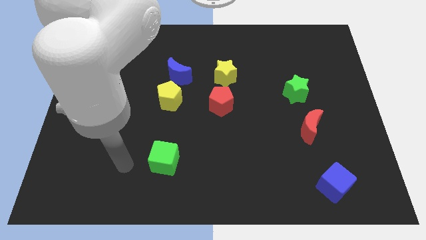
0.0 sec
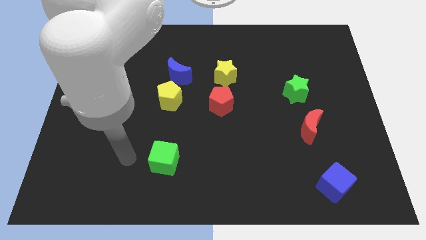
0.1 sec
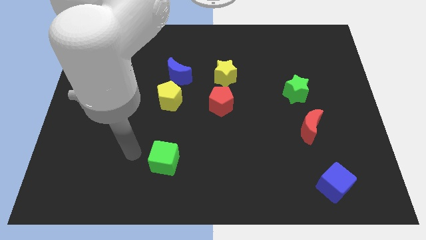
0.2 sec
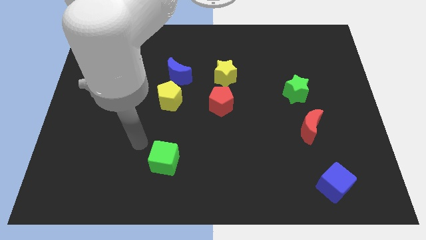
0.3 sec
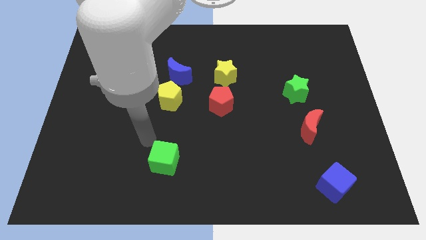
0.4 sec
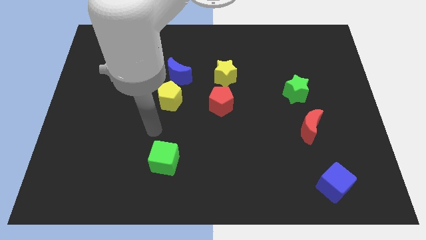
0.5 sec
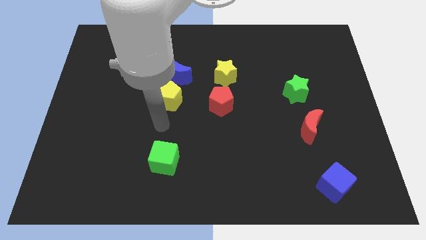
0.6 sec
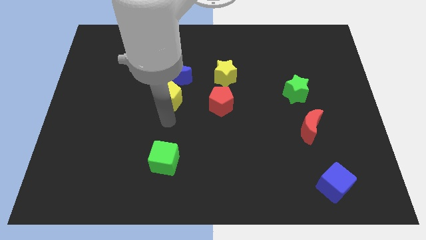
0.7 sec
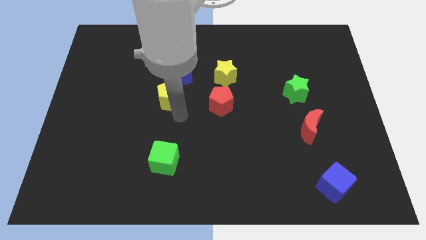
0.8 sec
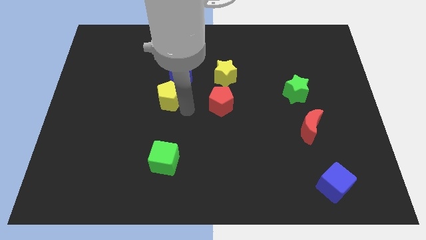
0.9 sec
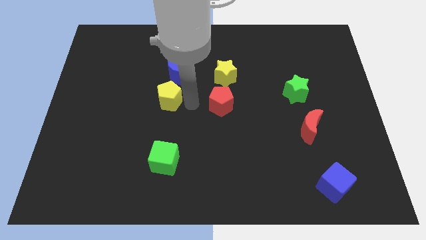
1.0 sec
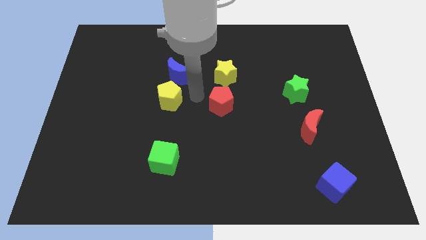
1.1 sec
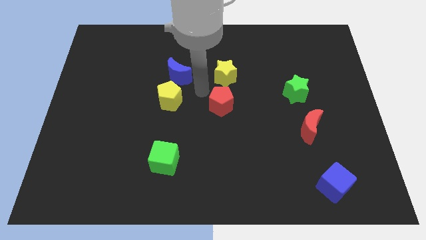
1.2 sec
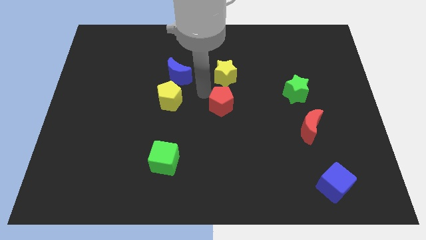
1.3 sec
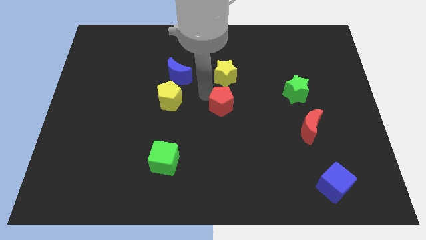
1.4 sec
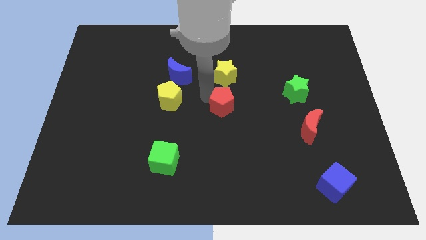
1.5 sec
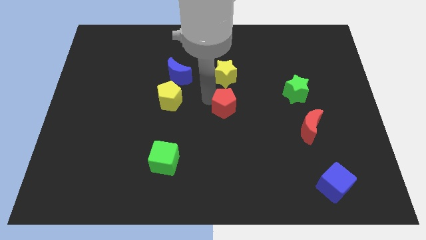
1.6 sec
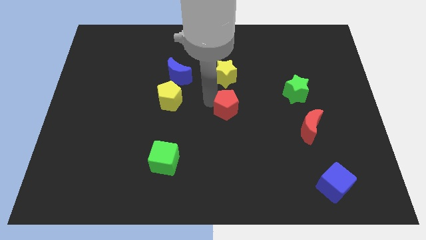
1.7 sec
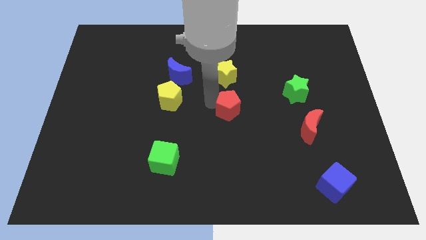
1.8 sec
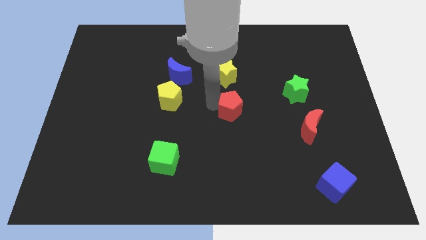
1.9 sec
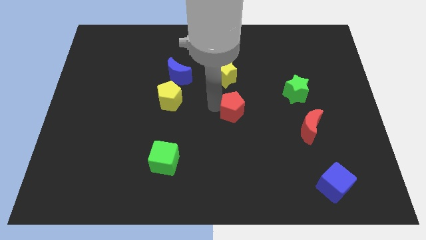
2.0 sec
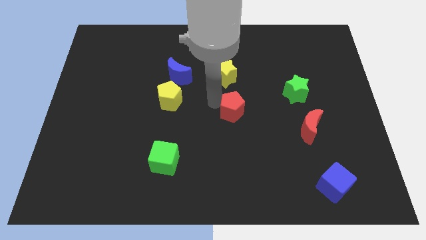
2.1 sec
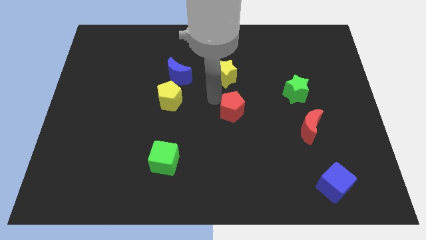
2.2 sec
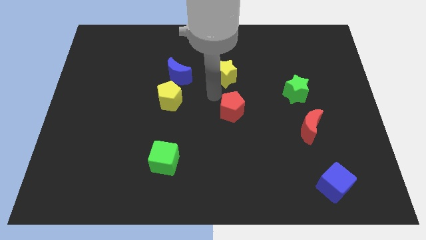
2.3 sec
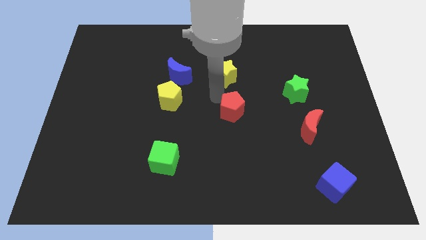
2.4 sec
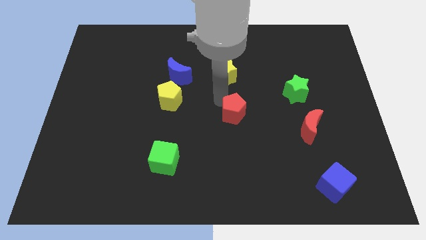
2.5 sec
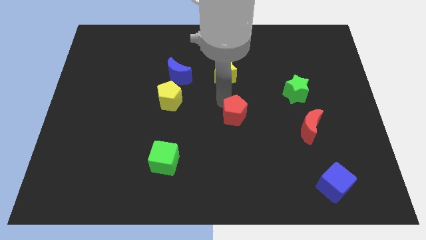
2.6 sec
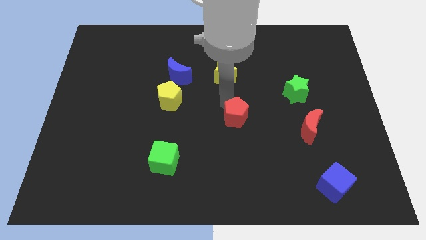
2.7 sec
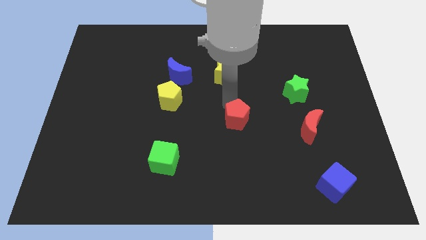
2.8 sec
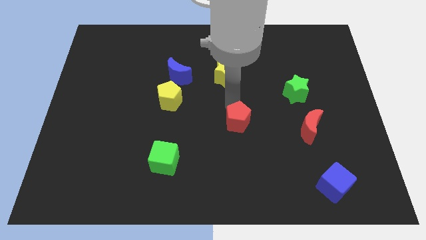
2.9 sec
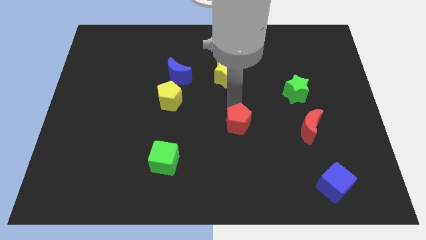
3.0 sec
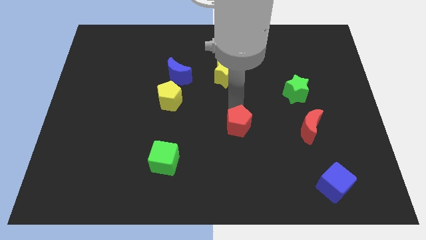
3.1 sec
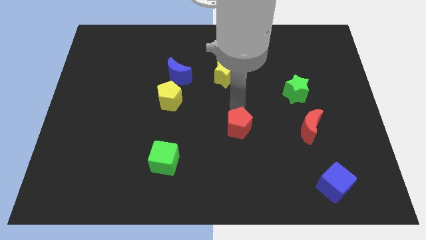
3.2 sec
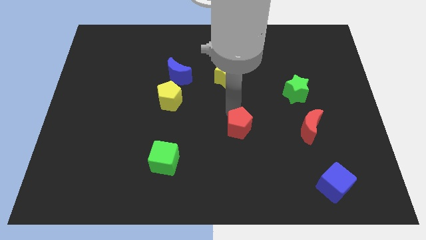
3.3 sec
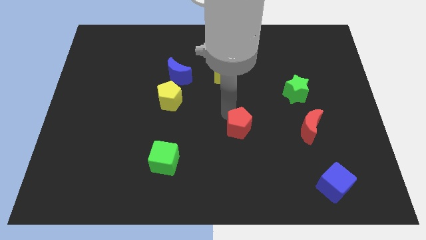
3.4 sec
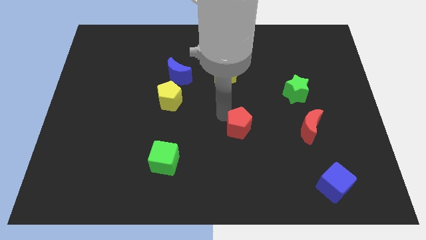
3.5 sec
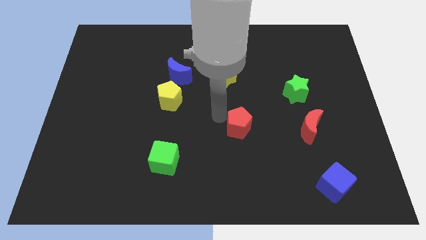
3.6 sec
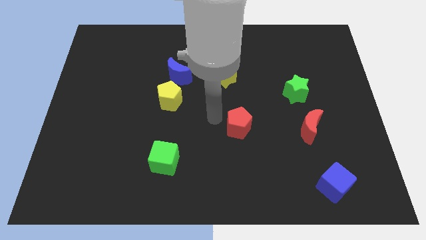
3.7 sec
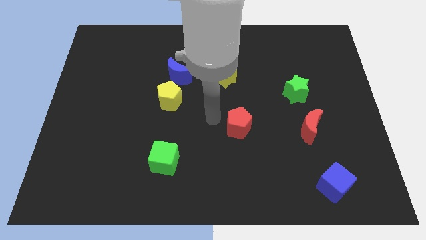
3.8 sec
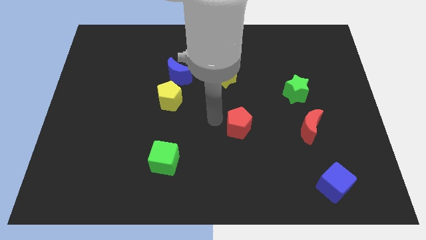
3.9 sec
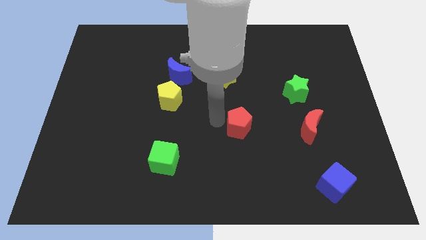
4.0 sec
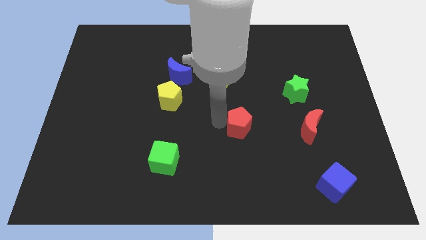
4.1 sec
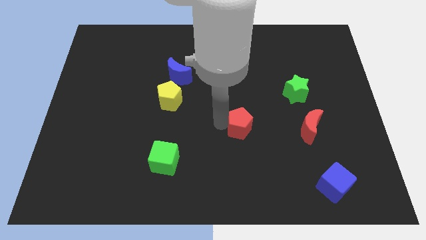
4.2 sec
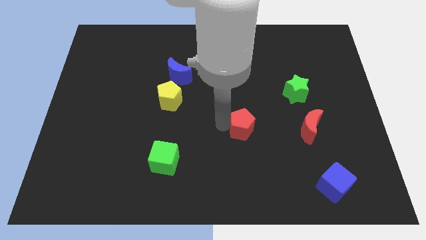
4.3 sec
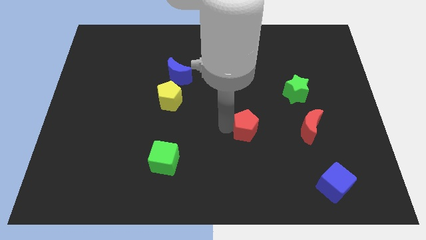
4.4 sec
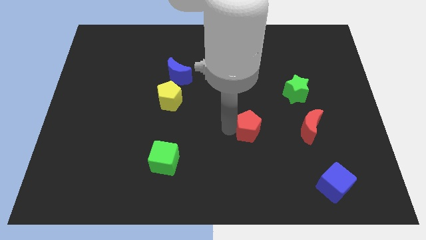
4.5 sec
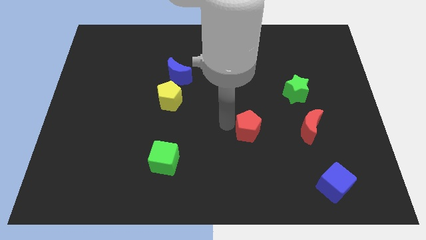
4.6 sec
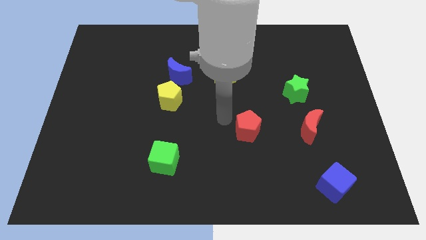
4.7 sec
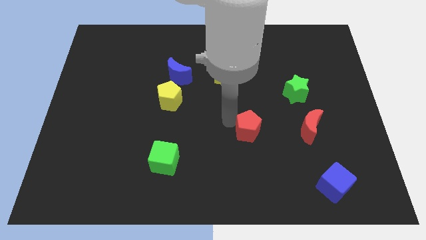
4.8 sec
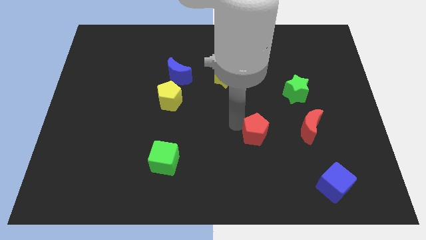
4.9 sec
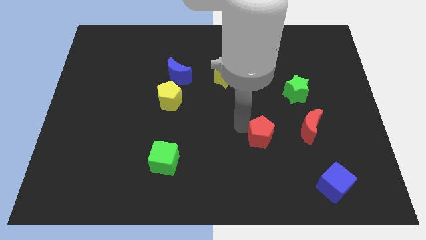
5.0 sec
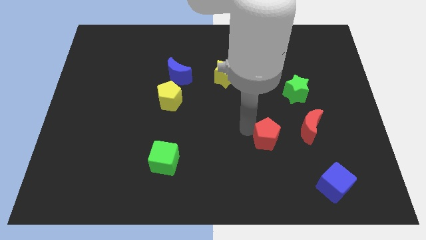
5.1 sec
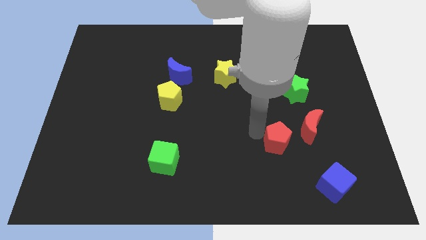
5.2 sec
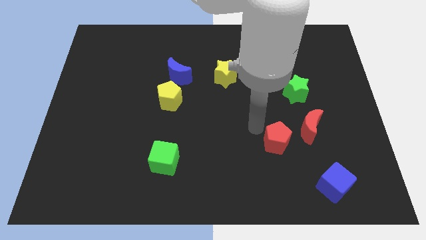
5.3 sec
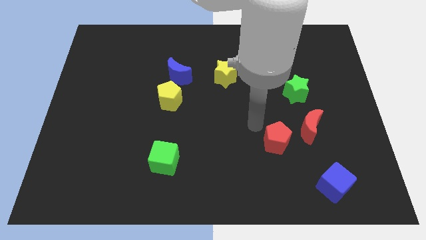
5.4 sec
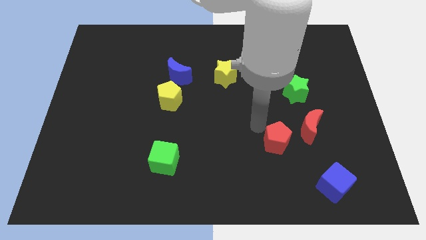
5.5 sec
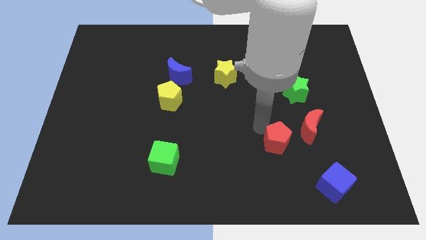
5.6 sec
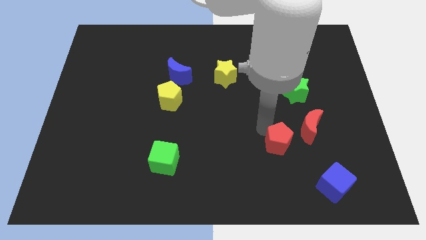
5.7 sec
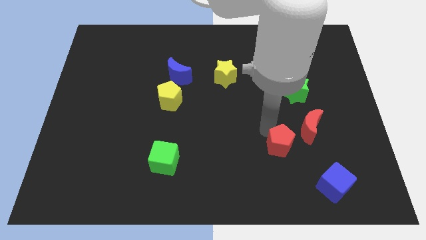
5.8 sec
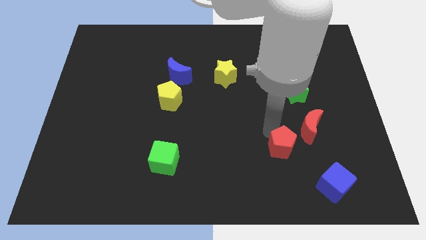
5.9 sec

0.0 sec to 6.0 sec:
slide the red pentagon to the top left side of the blue cube

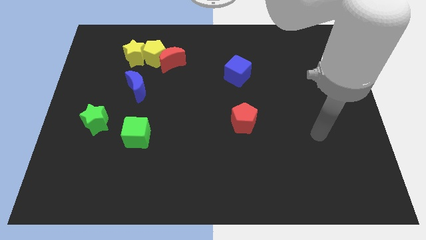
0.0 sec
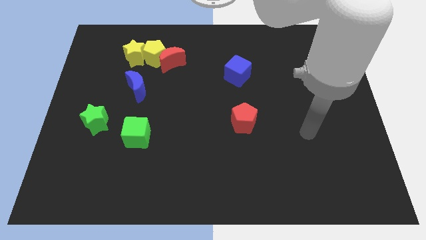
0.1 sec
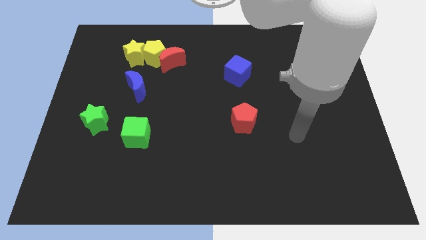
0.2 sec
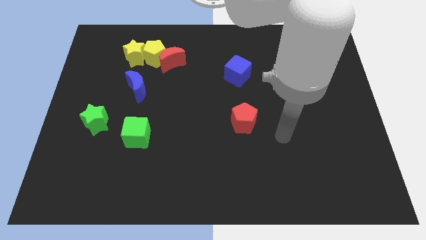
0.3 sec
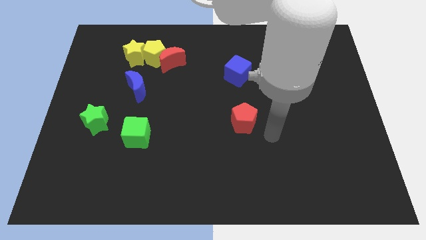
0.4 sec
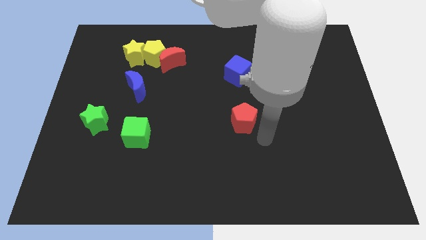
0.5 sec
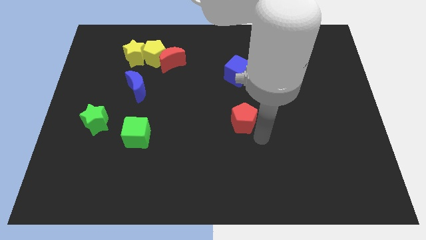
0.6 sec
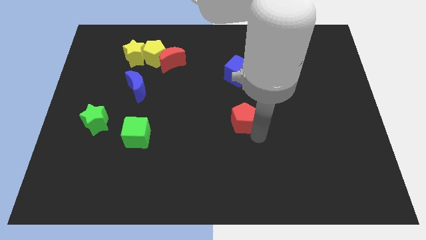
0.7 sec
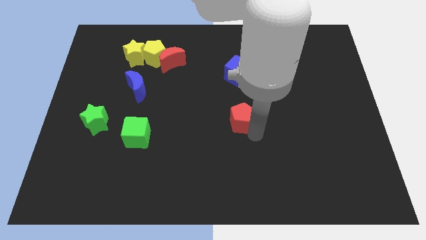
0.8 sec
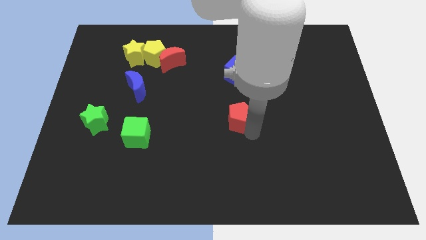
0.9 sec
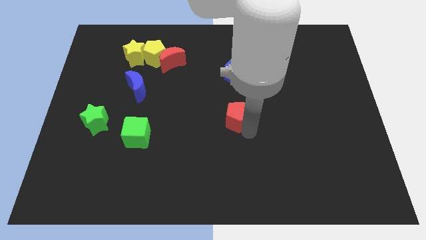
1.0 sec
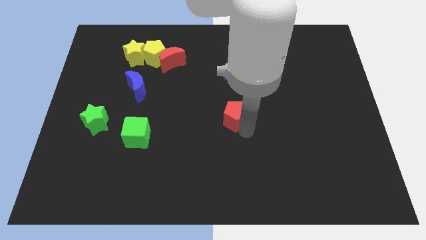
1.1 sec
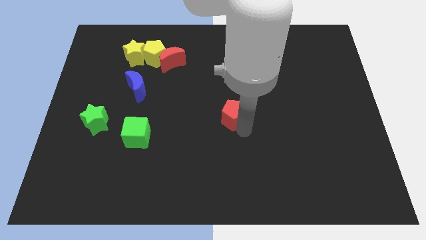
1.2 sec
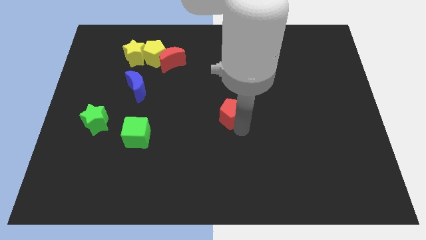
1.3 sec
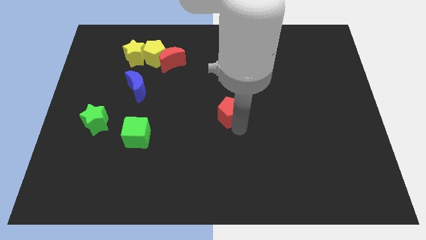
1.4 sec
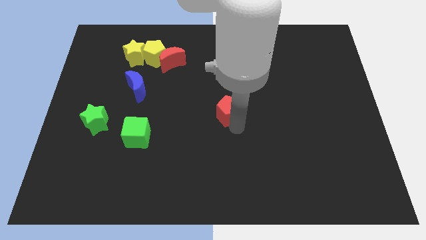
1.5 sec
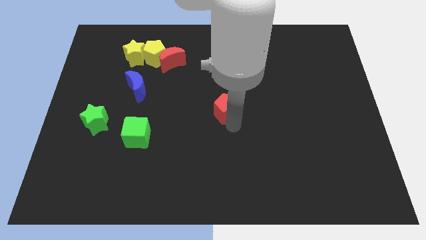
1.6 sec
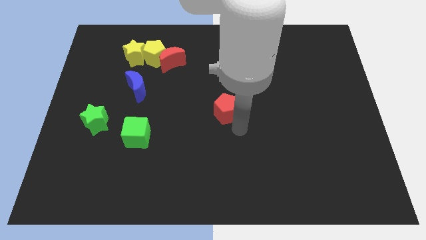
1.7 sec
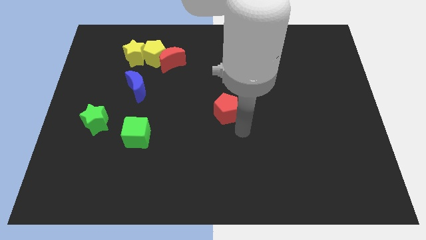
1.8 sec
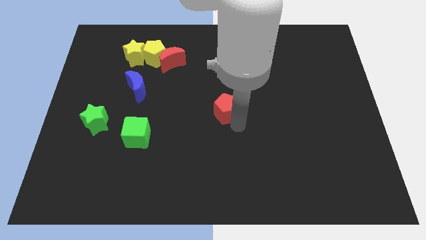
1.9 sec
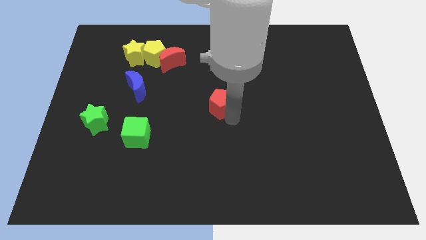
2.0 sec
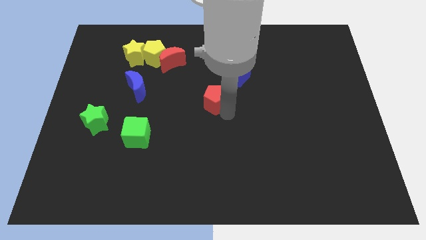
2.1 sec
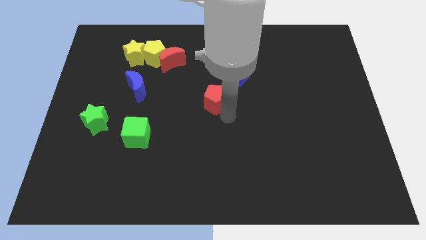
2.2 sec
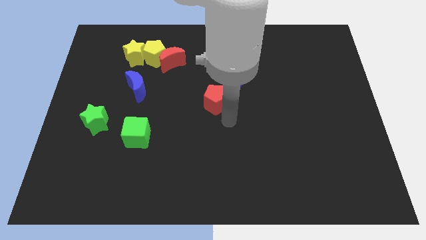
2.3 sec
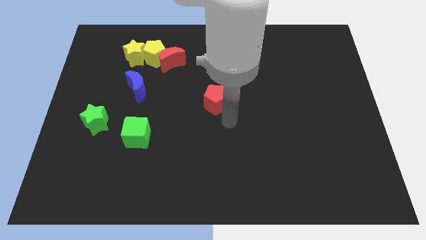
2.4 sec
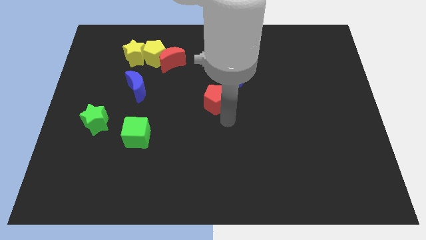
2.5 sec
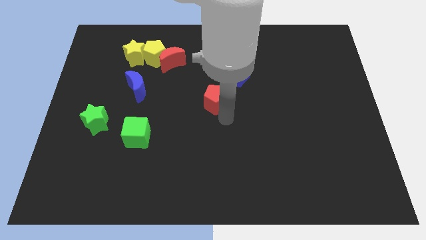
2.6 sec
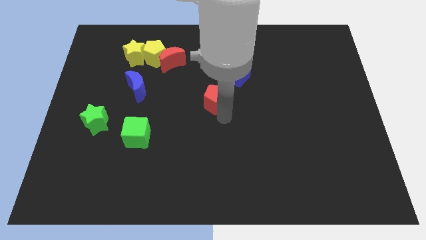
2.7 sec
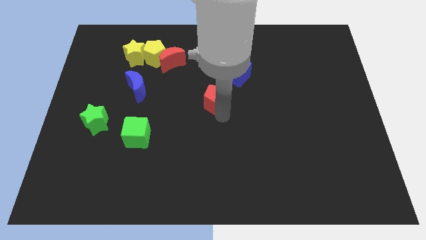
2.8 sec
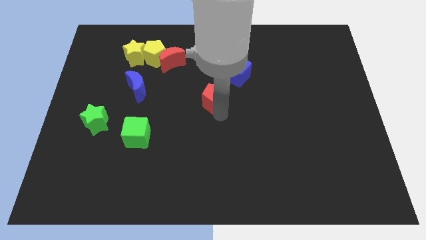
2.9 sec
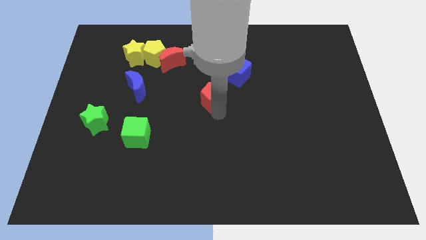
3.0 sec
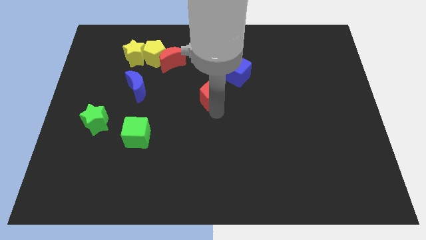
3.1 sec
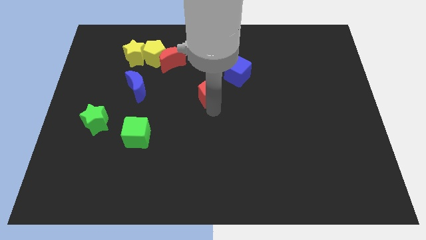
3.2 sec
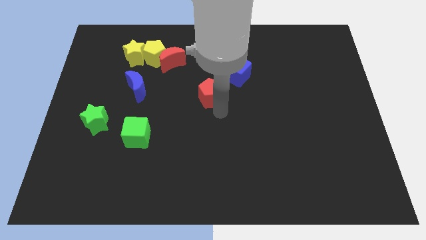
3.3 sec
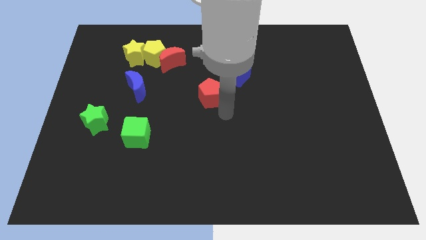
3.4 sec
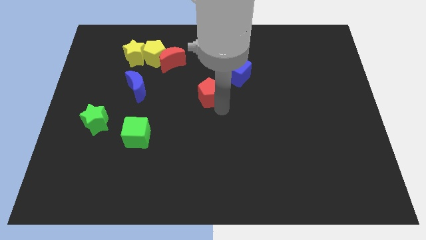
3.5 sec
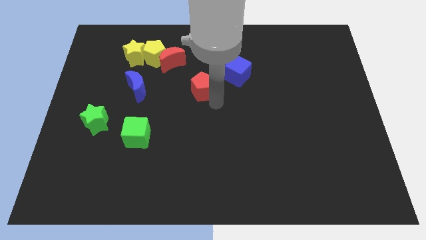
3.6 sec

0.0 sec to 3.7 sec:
slide the red pentagon to the bottom right side of the red moon
